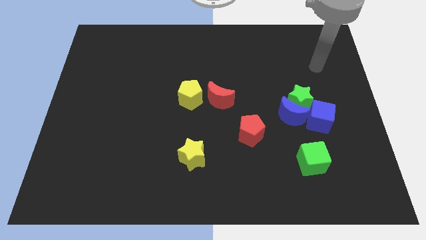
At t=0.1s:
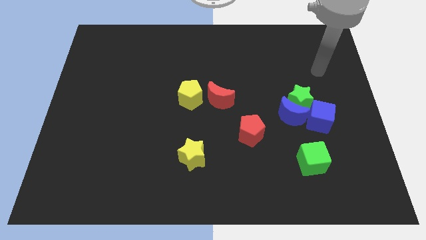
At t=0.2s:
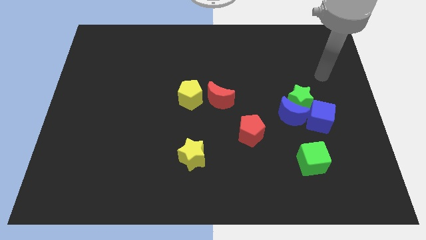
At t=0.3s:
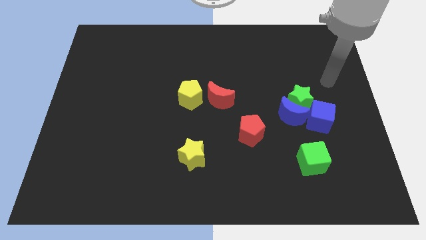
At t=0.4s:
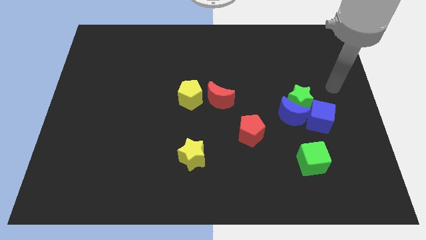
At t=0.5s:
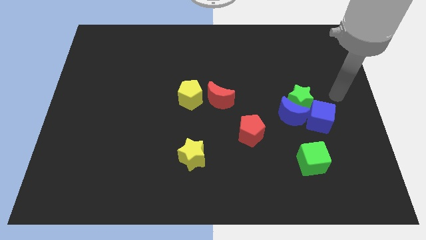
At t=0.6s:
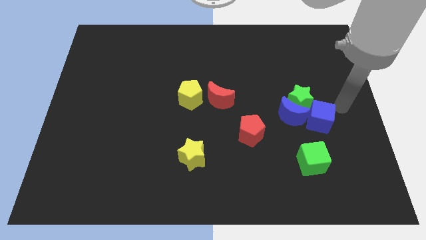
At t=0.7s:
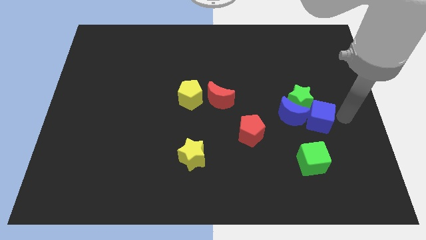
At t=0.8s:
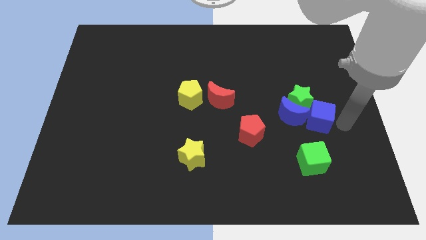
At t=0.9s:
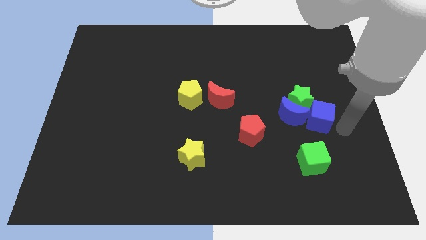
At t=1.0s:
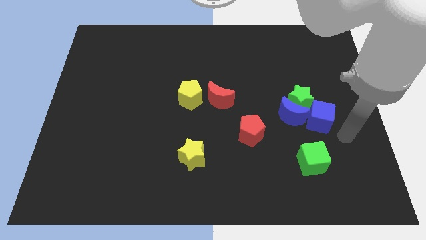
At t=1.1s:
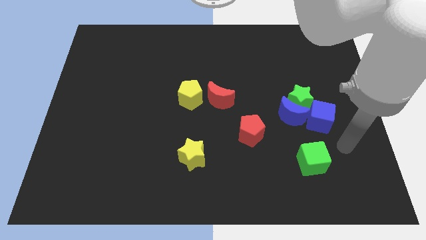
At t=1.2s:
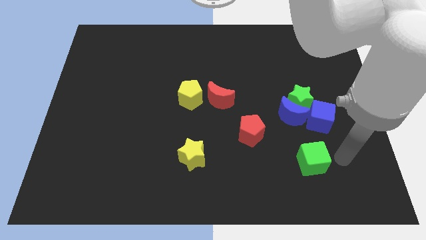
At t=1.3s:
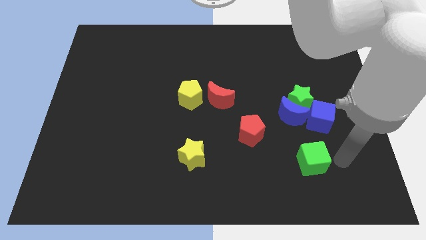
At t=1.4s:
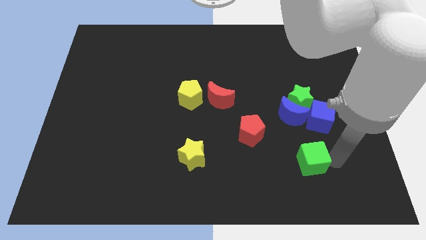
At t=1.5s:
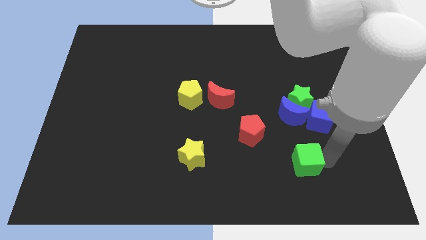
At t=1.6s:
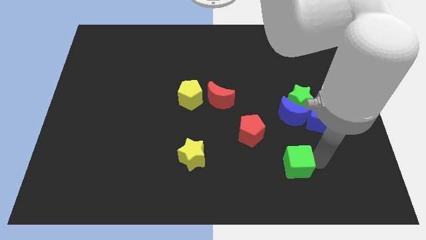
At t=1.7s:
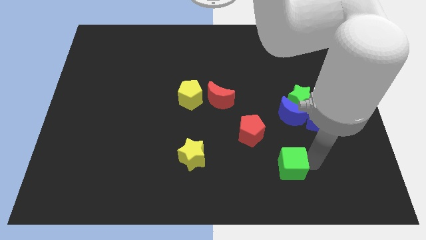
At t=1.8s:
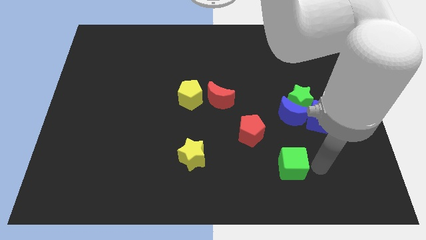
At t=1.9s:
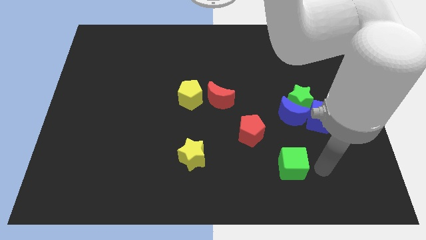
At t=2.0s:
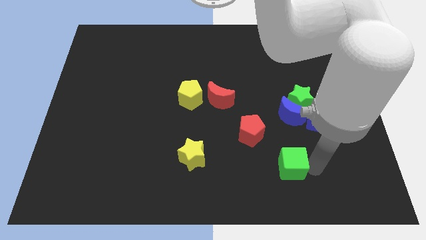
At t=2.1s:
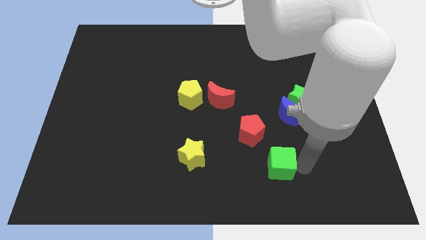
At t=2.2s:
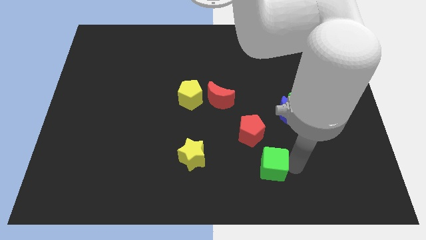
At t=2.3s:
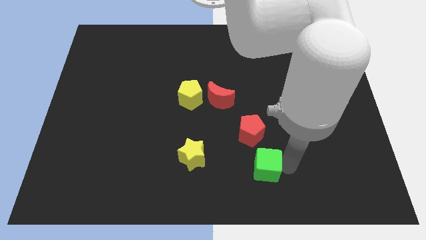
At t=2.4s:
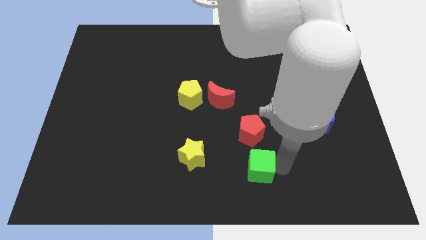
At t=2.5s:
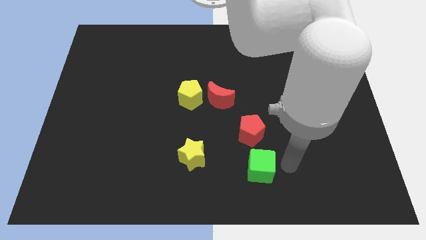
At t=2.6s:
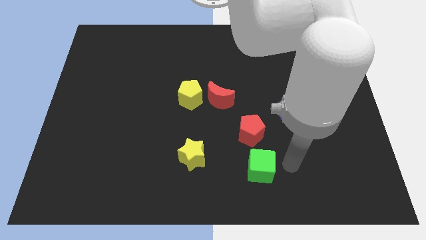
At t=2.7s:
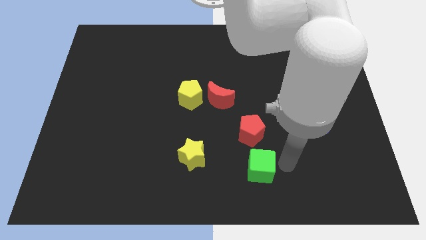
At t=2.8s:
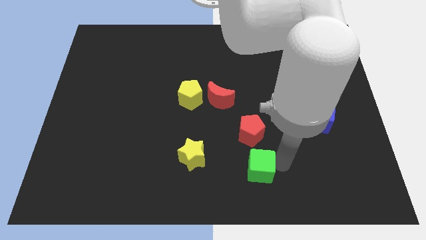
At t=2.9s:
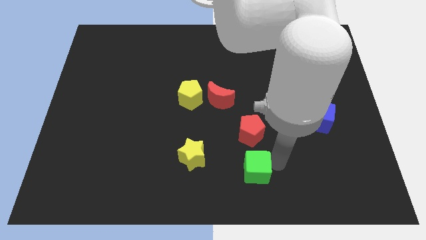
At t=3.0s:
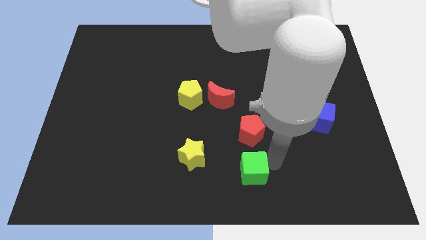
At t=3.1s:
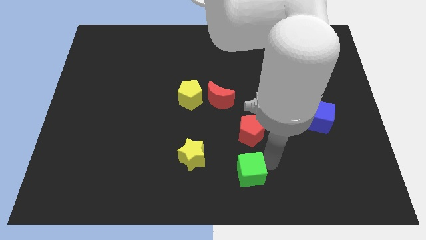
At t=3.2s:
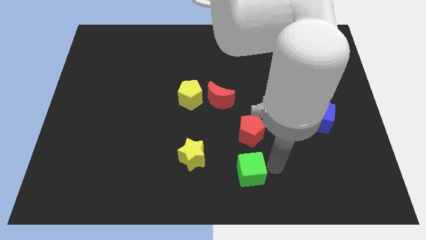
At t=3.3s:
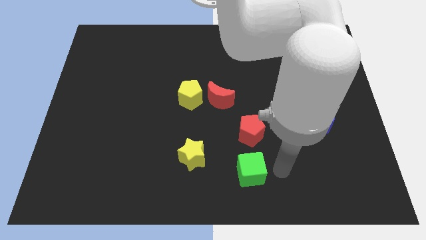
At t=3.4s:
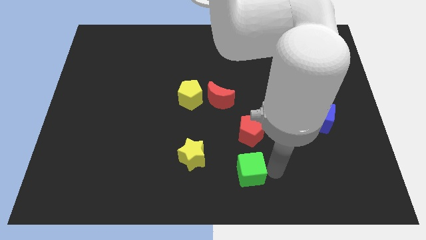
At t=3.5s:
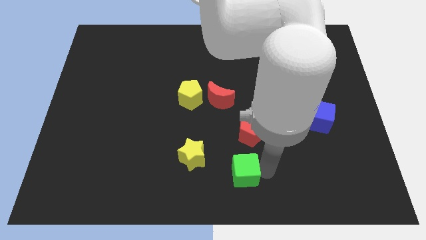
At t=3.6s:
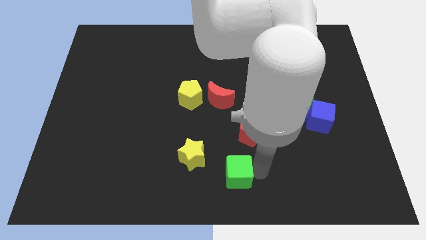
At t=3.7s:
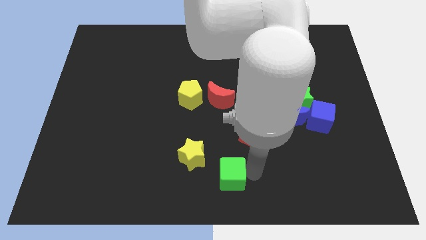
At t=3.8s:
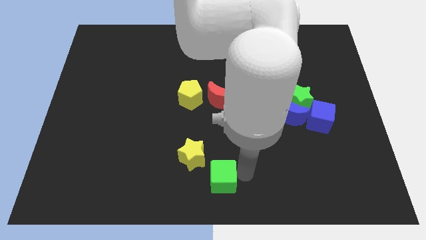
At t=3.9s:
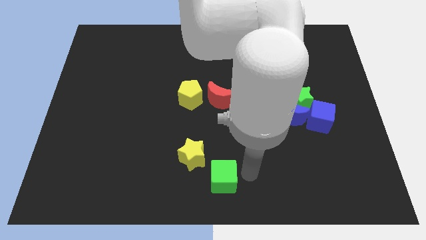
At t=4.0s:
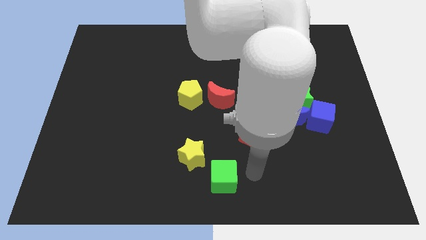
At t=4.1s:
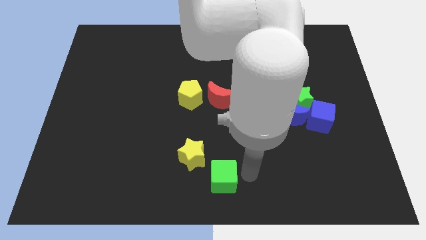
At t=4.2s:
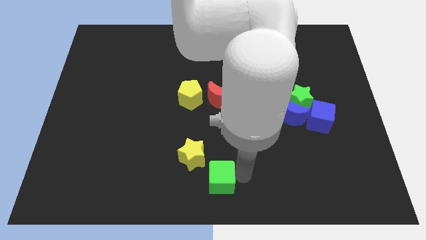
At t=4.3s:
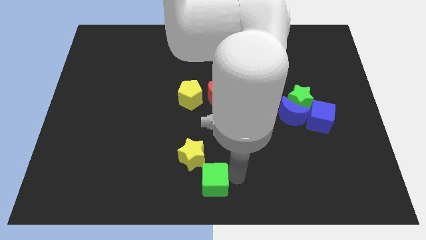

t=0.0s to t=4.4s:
push the green cube left

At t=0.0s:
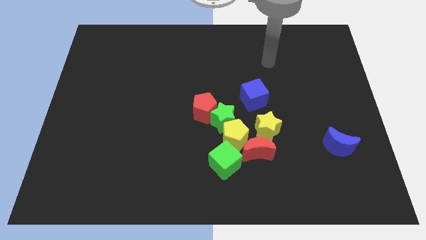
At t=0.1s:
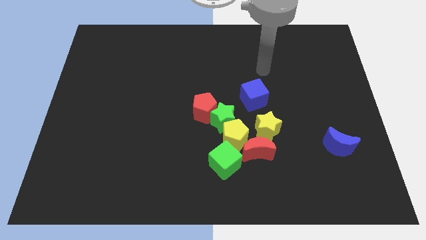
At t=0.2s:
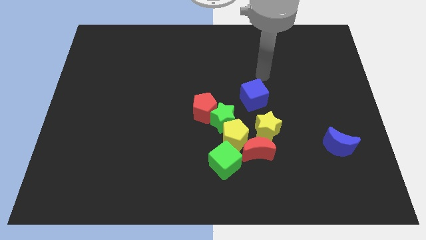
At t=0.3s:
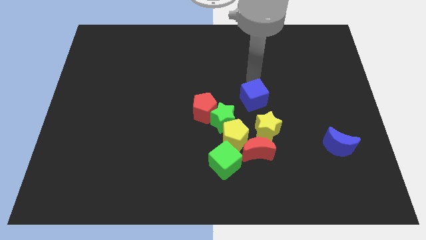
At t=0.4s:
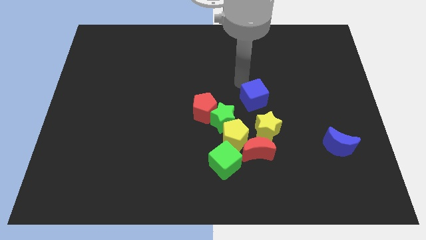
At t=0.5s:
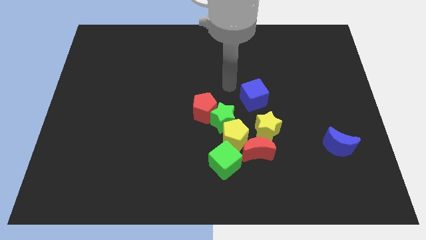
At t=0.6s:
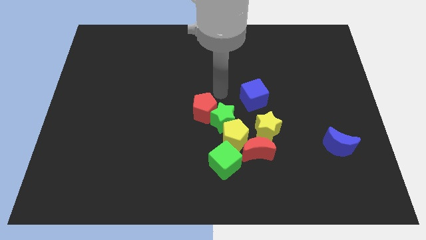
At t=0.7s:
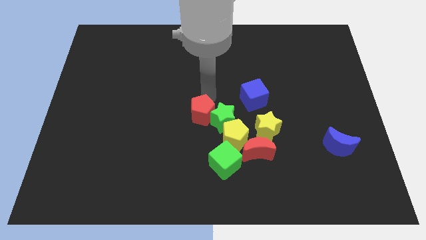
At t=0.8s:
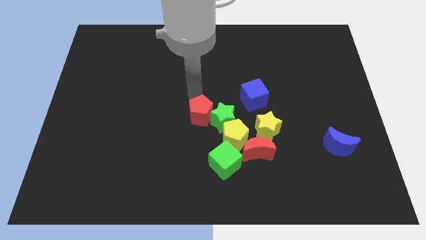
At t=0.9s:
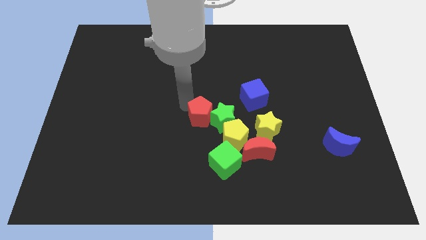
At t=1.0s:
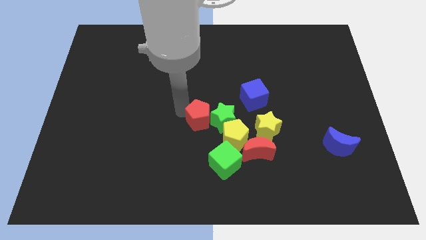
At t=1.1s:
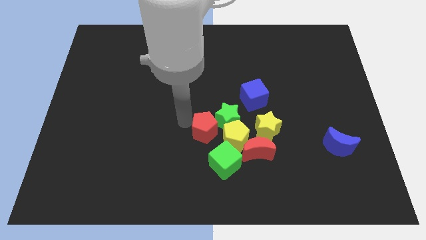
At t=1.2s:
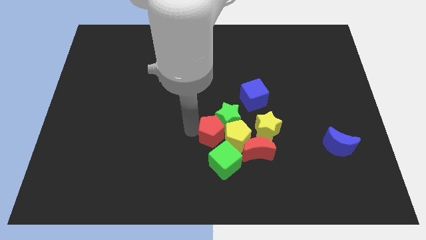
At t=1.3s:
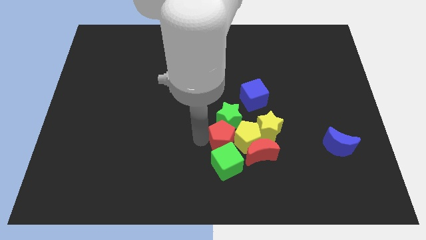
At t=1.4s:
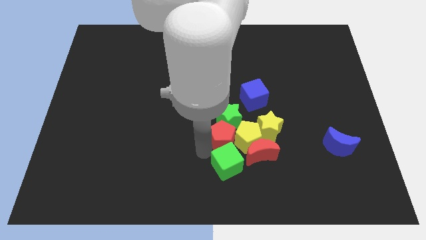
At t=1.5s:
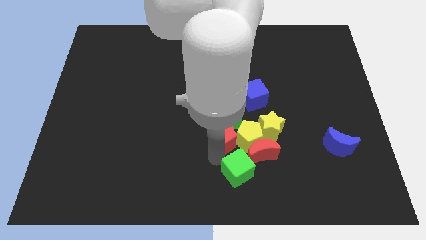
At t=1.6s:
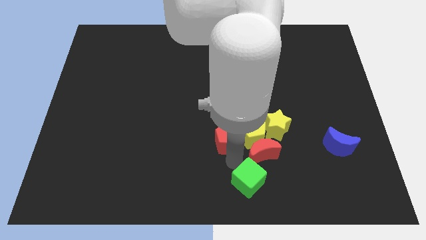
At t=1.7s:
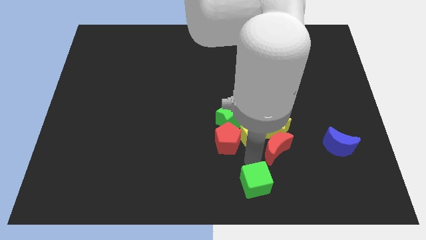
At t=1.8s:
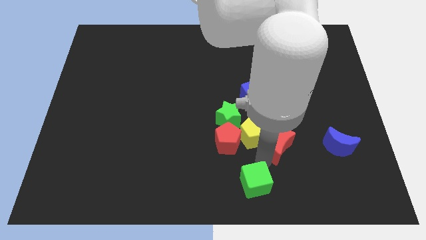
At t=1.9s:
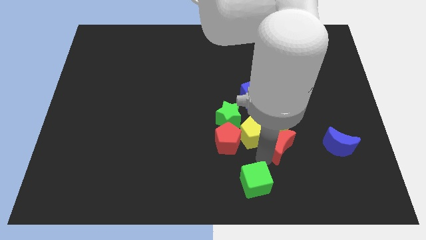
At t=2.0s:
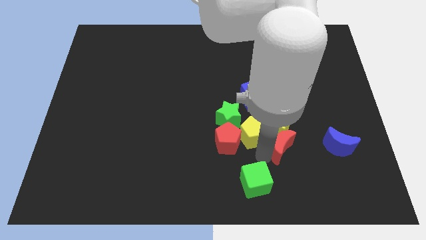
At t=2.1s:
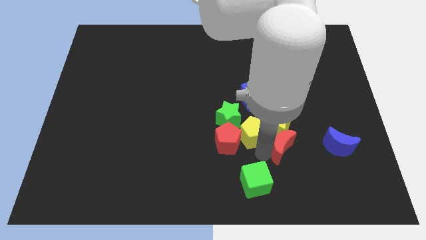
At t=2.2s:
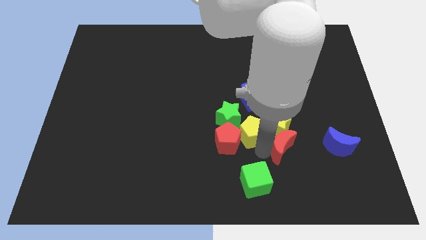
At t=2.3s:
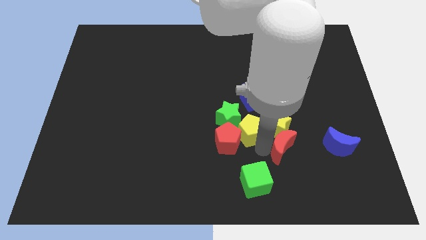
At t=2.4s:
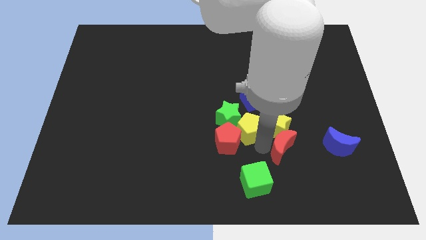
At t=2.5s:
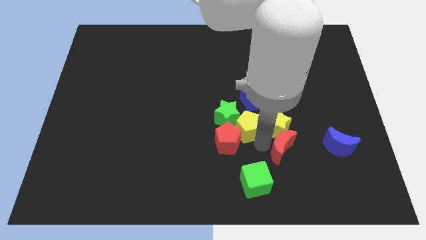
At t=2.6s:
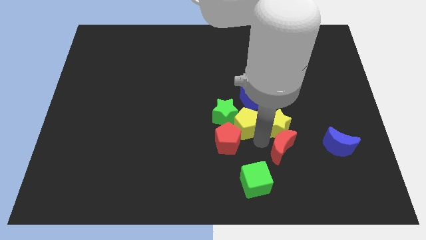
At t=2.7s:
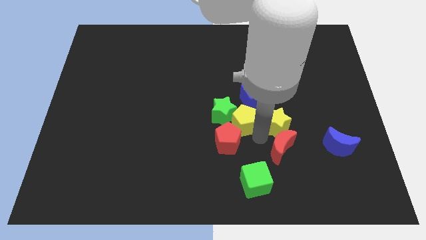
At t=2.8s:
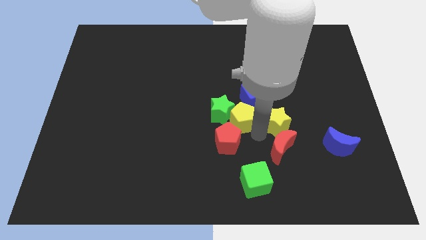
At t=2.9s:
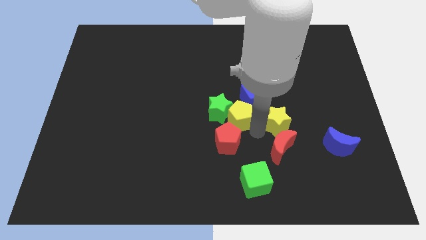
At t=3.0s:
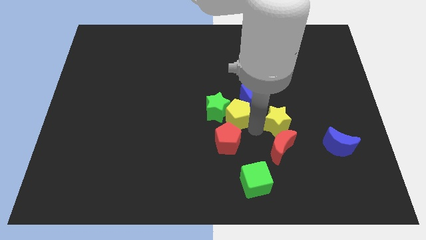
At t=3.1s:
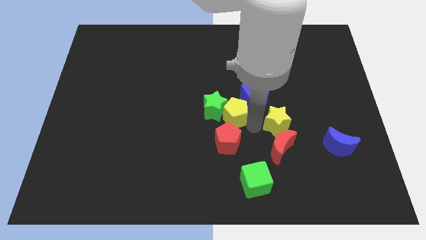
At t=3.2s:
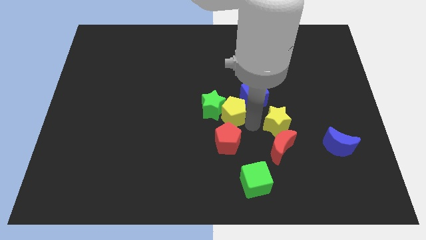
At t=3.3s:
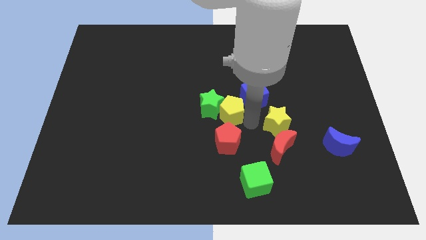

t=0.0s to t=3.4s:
move the yellow pentagon upwards a bit

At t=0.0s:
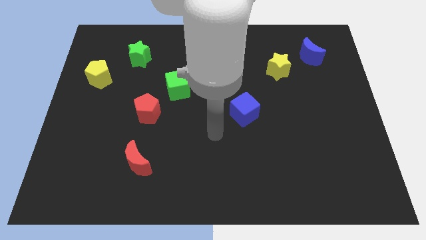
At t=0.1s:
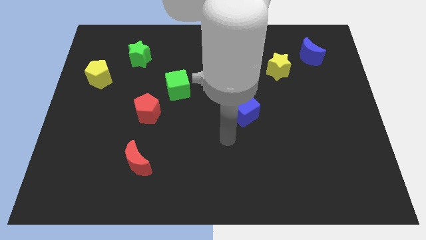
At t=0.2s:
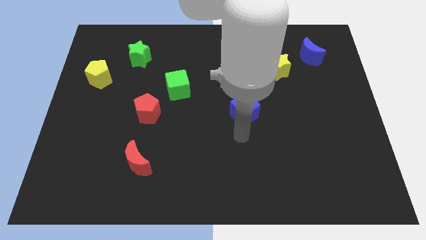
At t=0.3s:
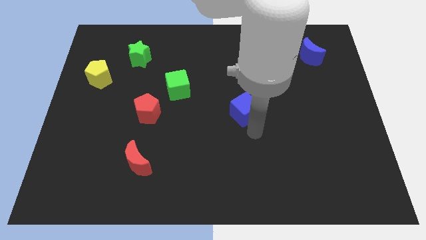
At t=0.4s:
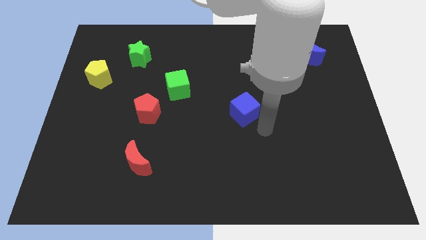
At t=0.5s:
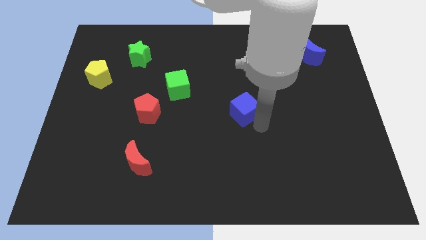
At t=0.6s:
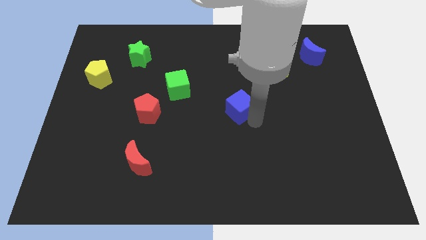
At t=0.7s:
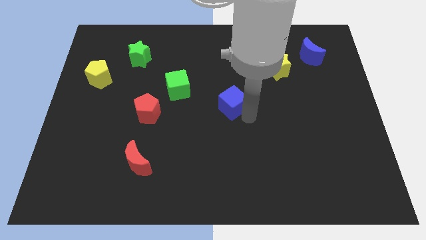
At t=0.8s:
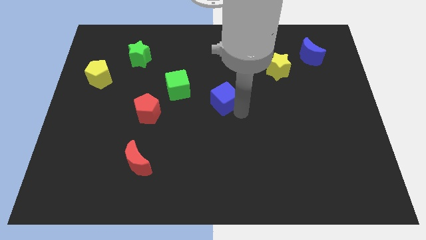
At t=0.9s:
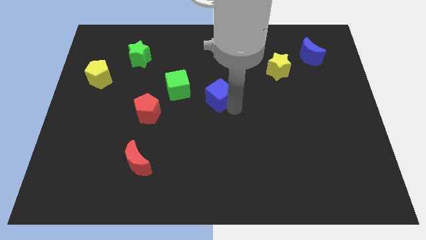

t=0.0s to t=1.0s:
push the blue cube upwards and then left somewhat
